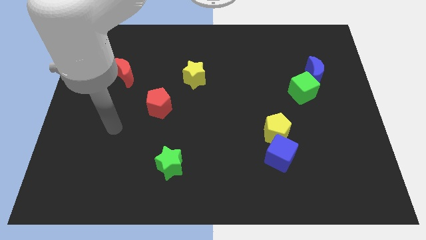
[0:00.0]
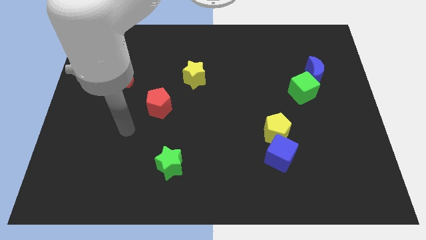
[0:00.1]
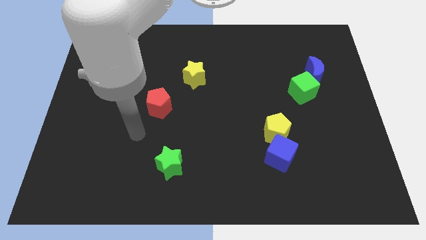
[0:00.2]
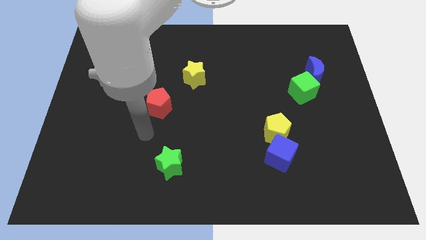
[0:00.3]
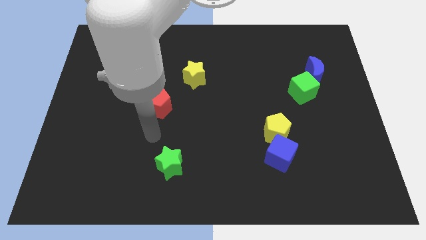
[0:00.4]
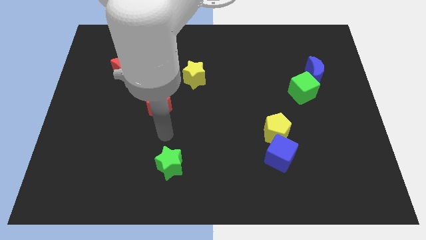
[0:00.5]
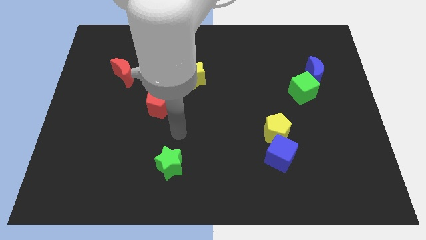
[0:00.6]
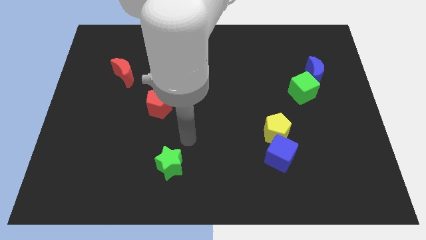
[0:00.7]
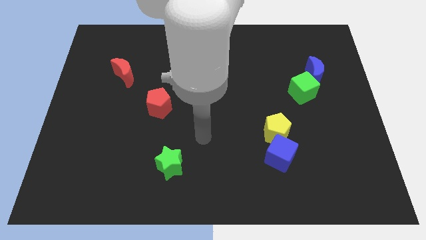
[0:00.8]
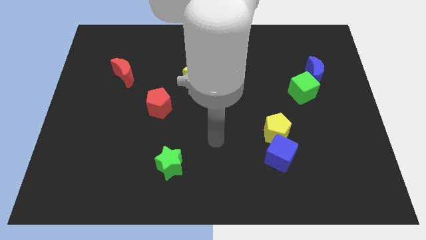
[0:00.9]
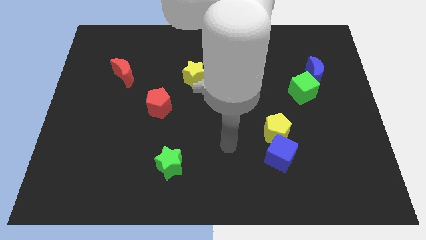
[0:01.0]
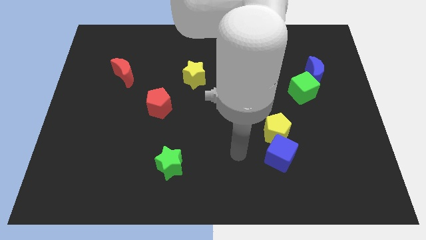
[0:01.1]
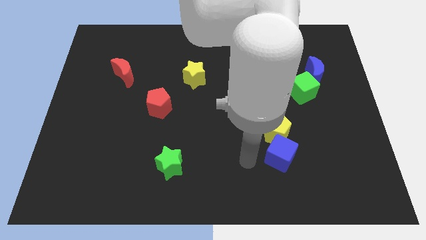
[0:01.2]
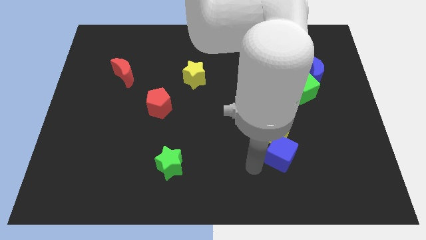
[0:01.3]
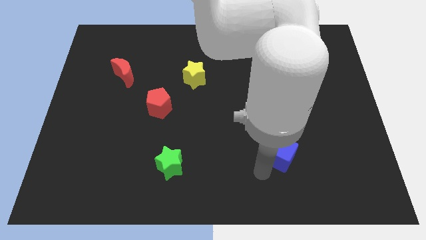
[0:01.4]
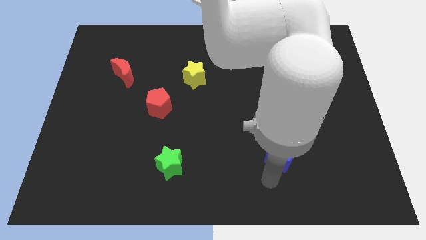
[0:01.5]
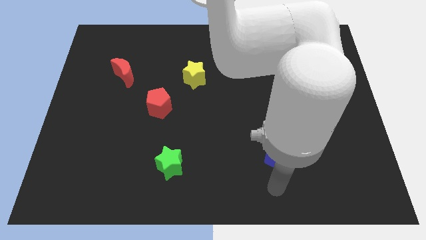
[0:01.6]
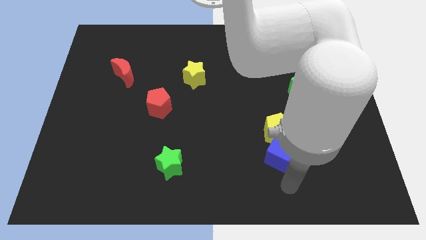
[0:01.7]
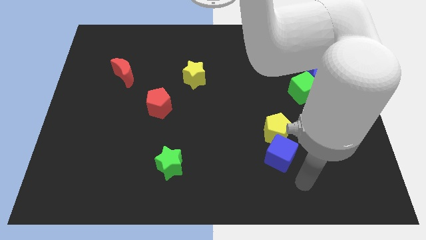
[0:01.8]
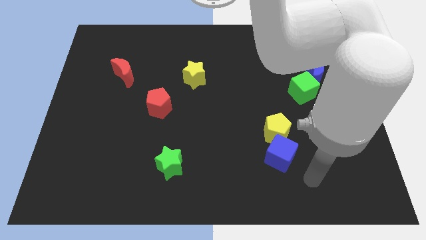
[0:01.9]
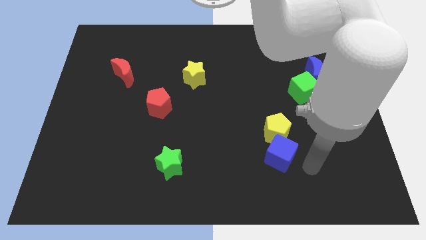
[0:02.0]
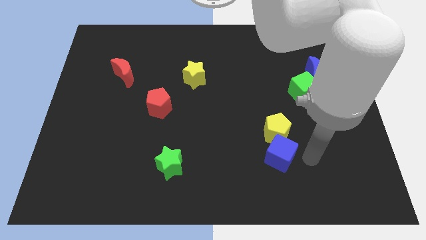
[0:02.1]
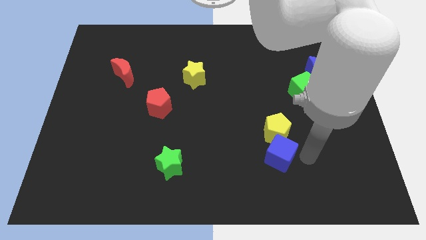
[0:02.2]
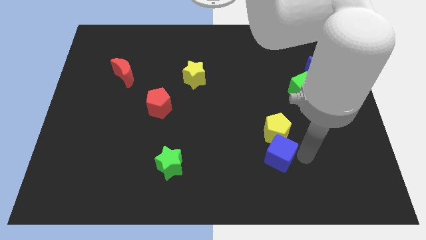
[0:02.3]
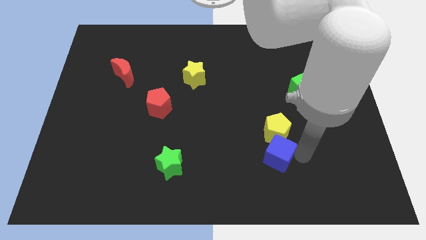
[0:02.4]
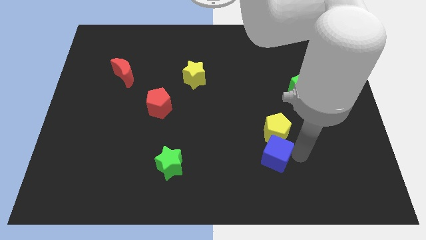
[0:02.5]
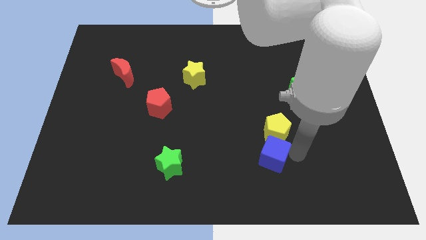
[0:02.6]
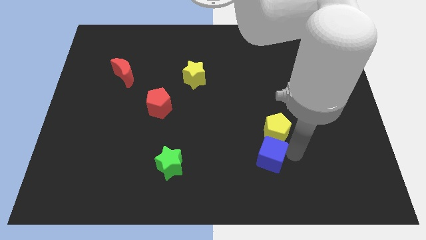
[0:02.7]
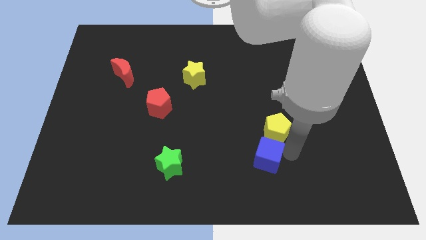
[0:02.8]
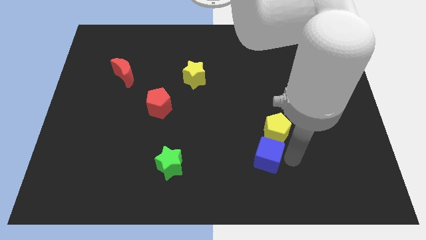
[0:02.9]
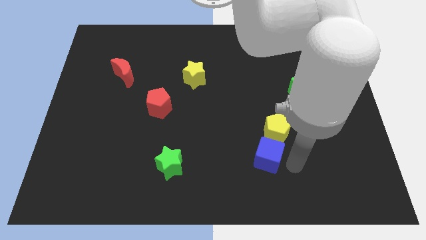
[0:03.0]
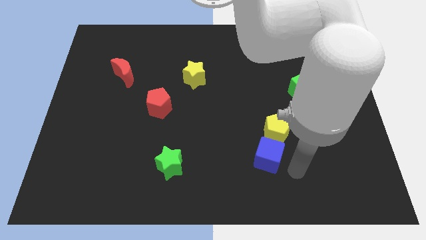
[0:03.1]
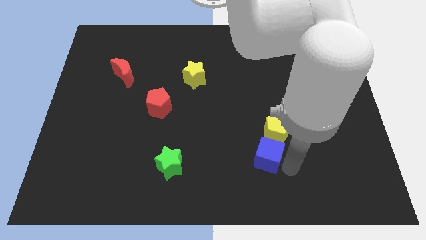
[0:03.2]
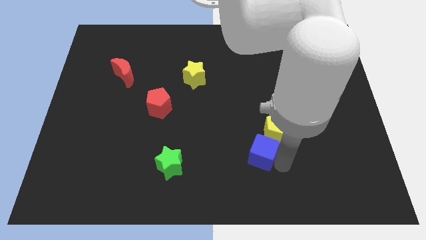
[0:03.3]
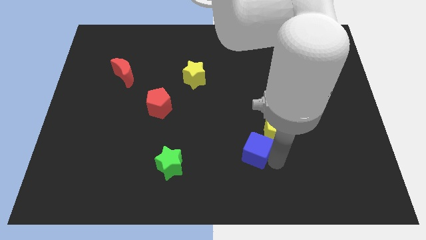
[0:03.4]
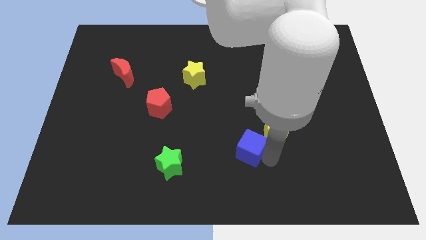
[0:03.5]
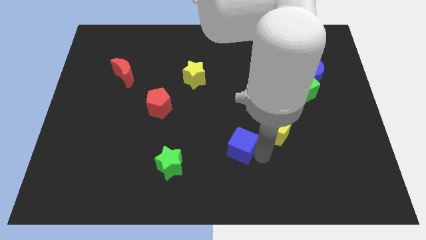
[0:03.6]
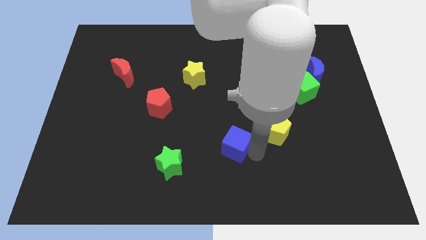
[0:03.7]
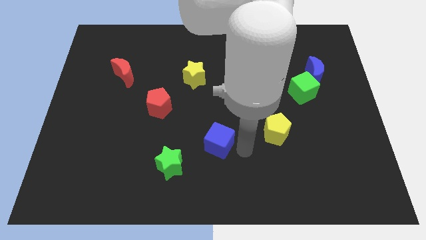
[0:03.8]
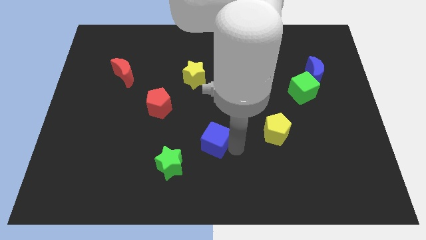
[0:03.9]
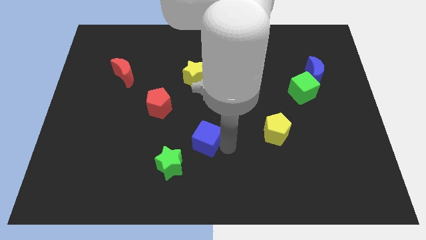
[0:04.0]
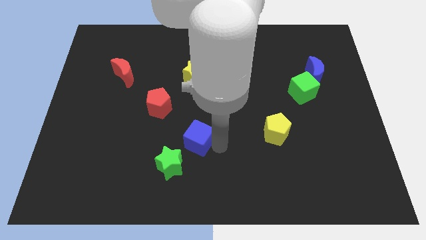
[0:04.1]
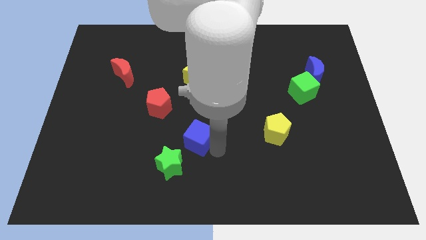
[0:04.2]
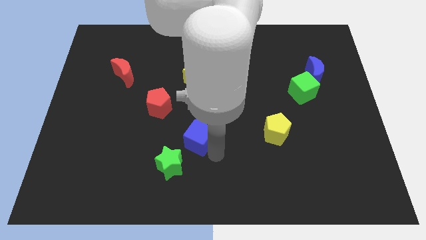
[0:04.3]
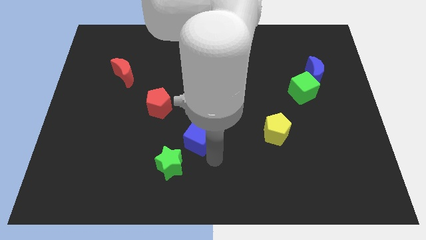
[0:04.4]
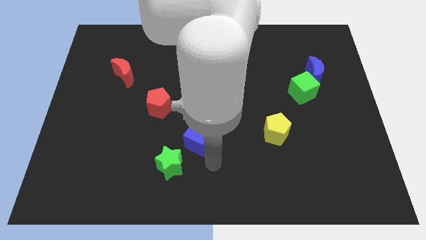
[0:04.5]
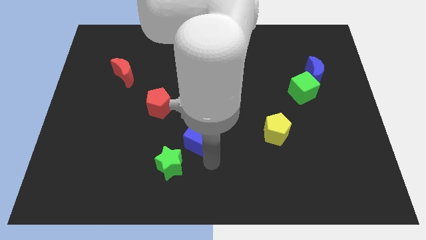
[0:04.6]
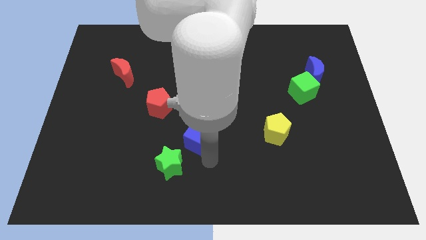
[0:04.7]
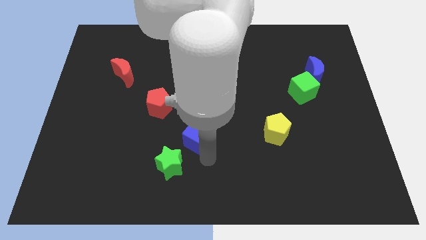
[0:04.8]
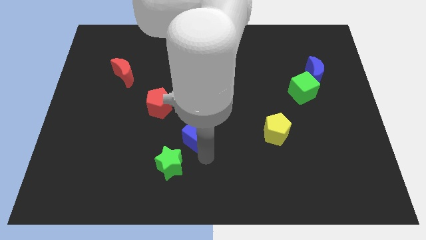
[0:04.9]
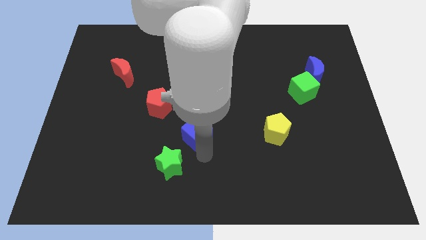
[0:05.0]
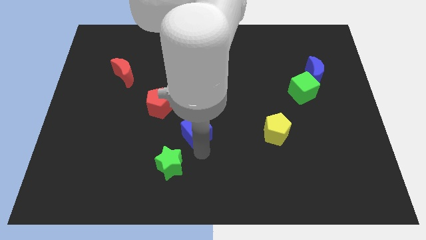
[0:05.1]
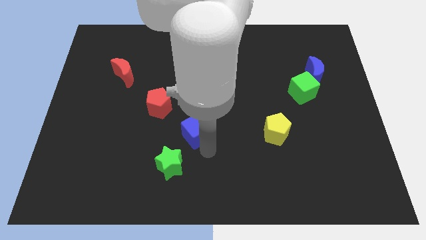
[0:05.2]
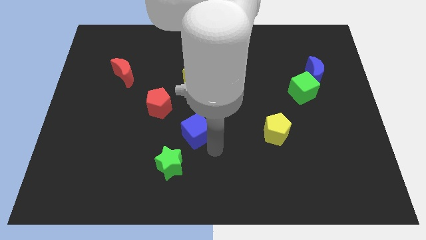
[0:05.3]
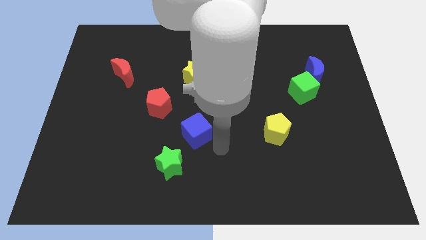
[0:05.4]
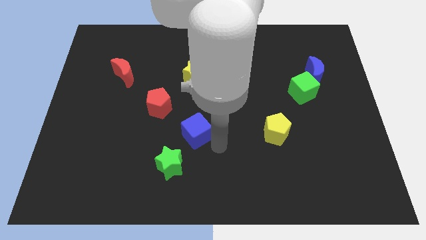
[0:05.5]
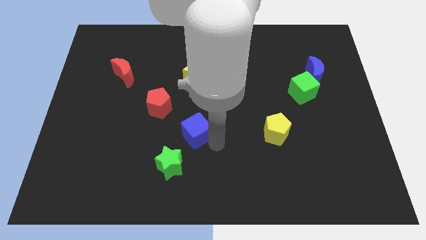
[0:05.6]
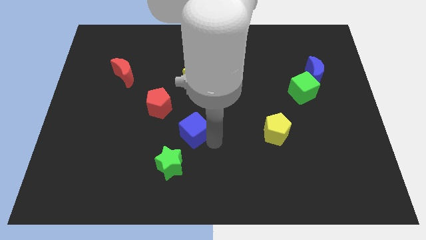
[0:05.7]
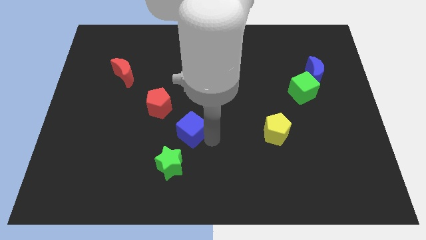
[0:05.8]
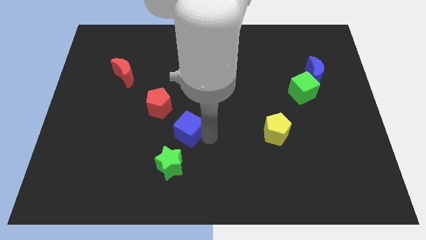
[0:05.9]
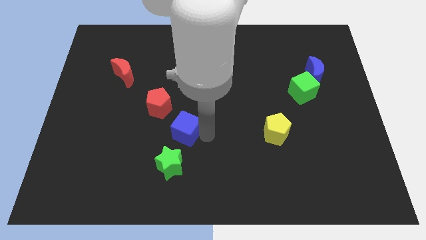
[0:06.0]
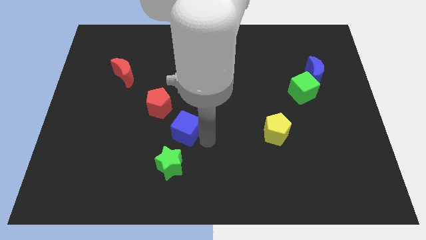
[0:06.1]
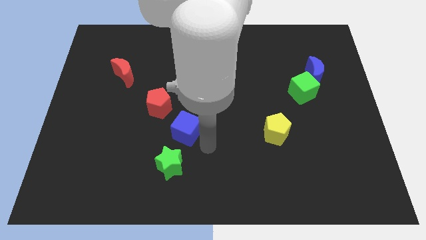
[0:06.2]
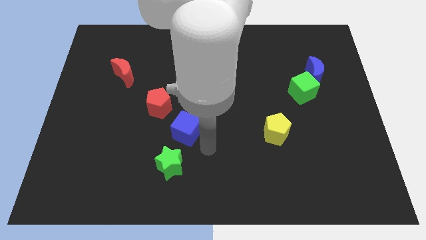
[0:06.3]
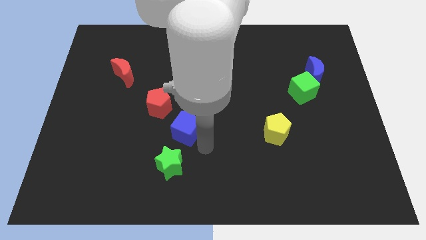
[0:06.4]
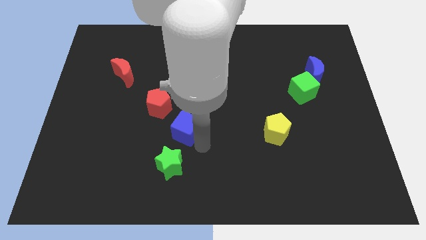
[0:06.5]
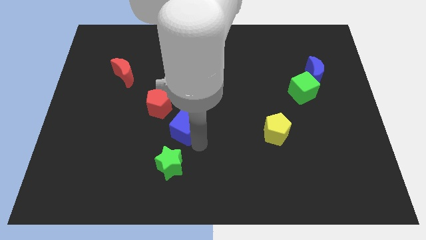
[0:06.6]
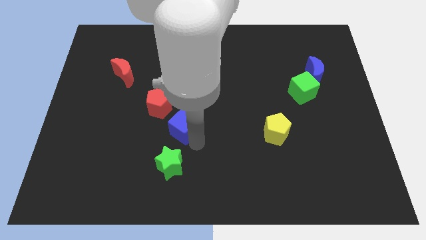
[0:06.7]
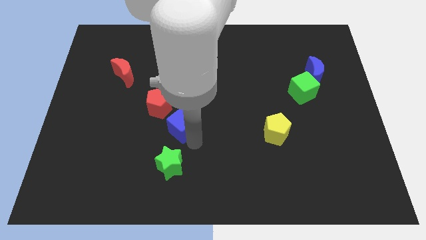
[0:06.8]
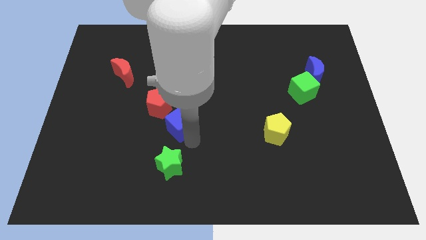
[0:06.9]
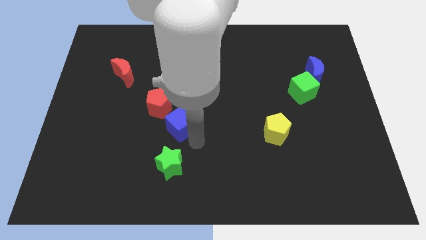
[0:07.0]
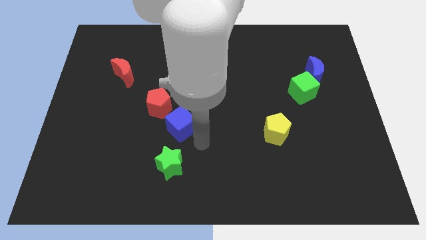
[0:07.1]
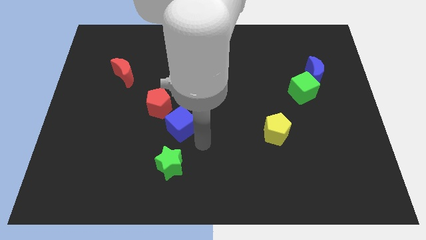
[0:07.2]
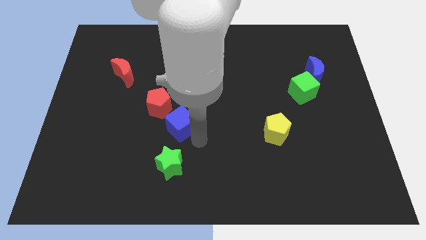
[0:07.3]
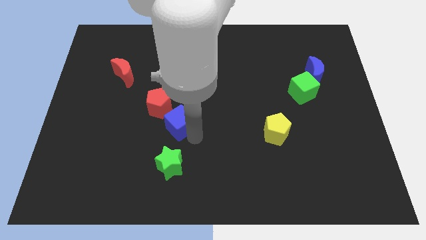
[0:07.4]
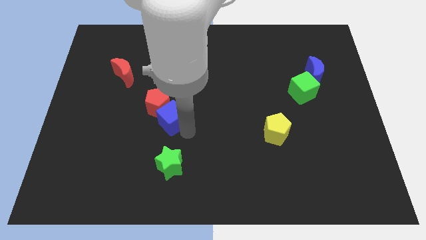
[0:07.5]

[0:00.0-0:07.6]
slide the blue cube to the red pentagon
